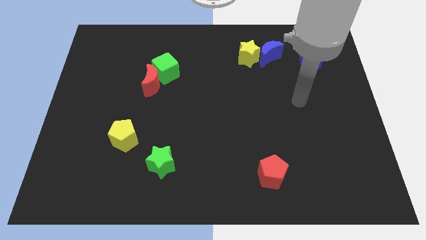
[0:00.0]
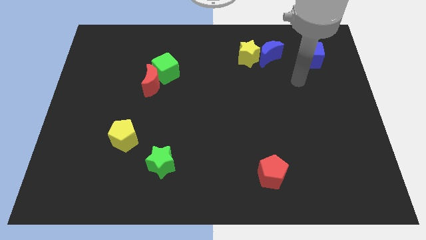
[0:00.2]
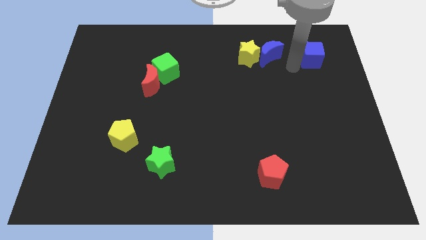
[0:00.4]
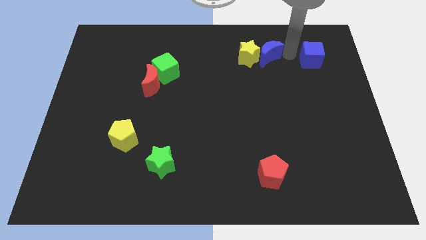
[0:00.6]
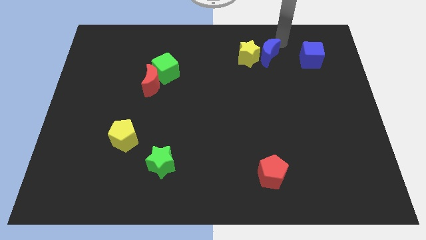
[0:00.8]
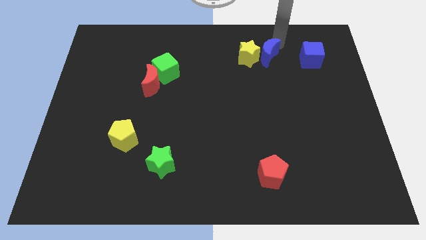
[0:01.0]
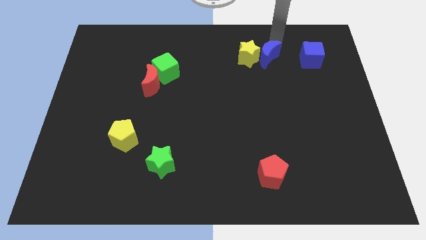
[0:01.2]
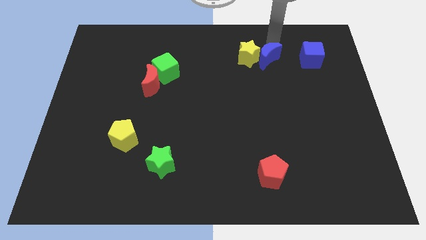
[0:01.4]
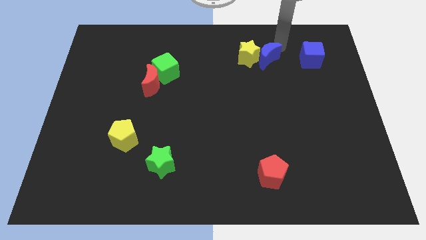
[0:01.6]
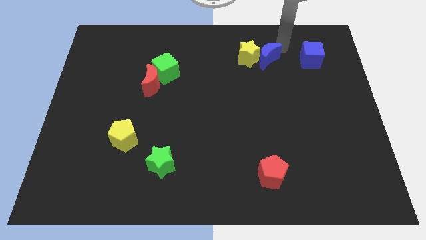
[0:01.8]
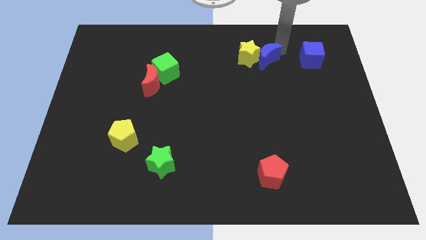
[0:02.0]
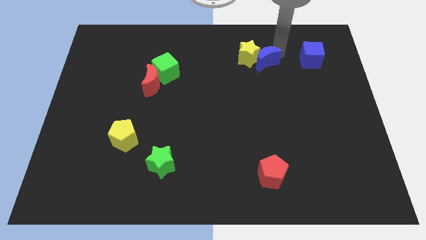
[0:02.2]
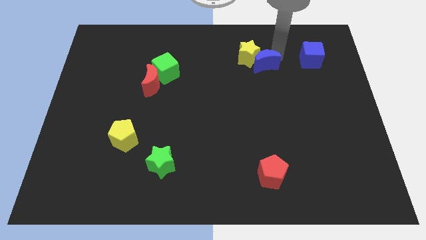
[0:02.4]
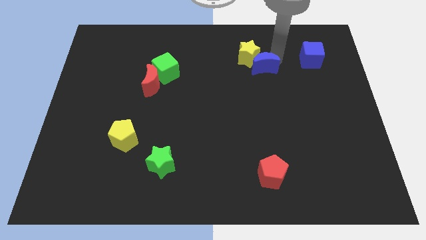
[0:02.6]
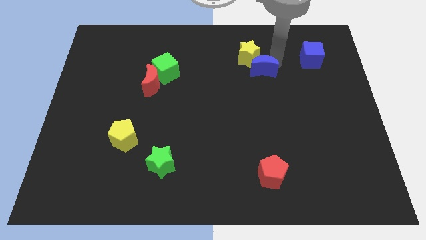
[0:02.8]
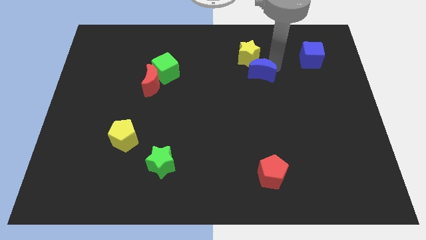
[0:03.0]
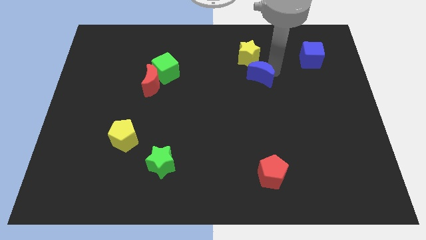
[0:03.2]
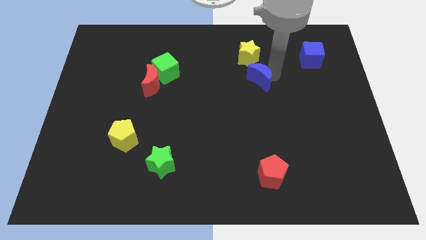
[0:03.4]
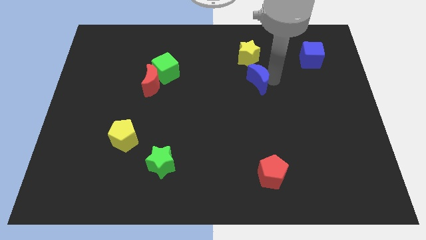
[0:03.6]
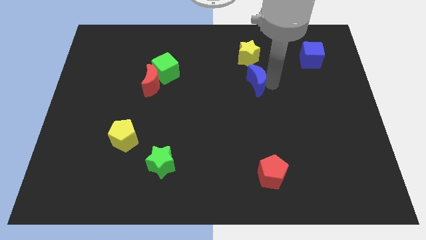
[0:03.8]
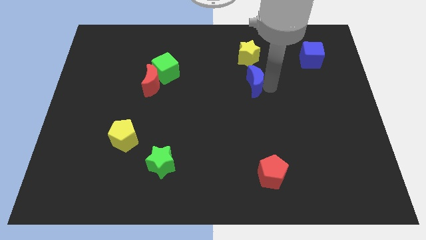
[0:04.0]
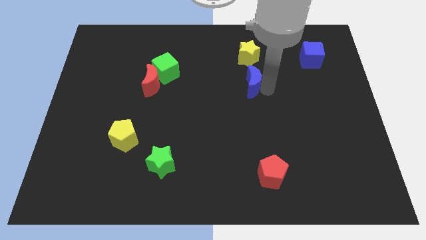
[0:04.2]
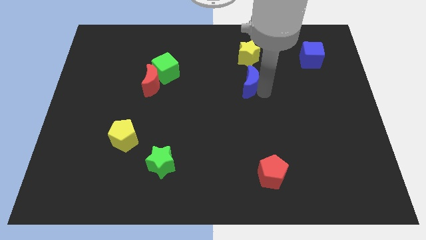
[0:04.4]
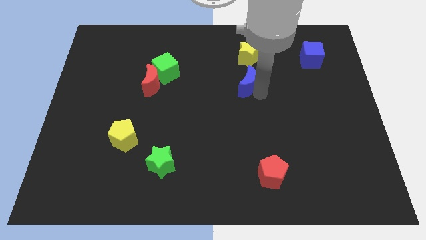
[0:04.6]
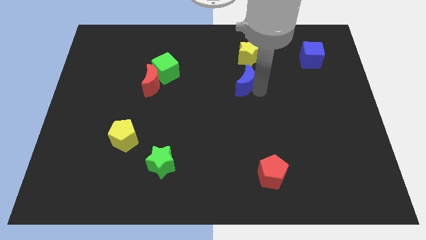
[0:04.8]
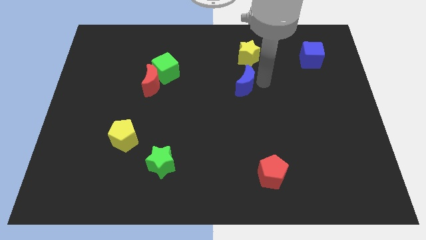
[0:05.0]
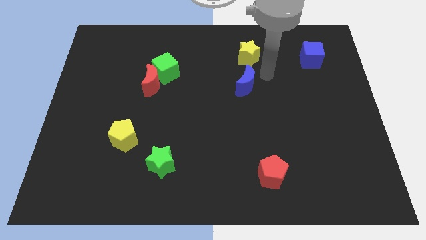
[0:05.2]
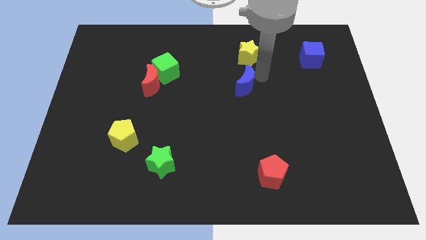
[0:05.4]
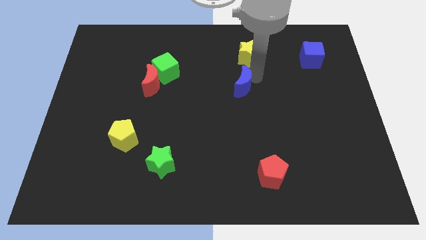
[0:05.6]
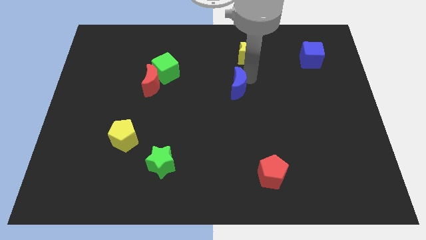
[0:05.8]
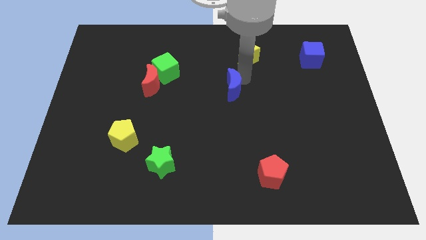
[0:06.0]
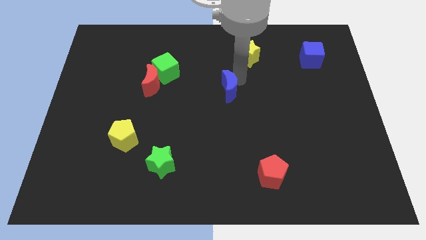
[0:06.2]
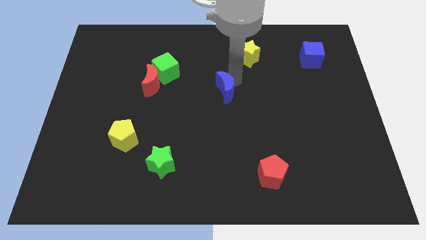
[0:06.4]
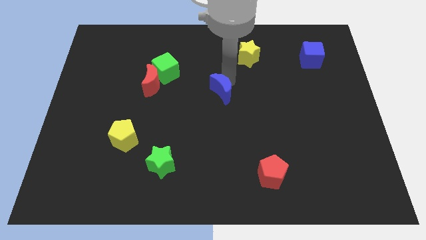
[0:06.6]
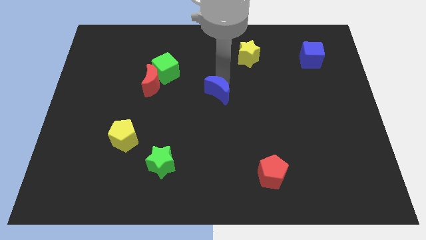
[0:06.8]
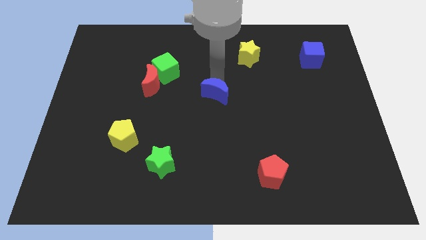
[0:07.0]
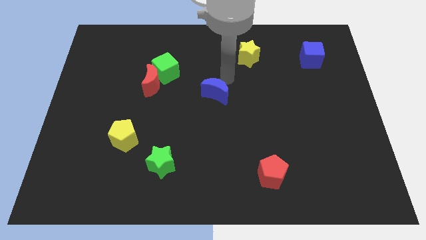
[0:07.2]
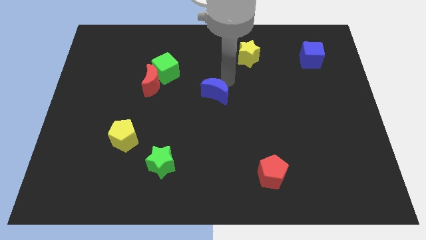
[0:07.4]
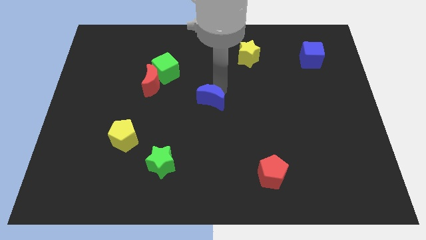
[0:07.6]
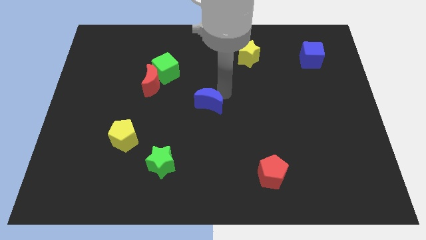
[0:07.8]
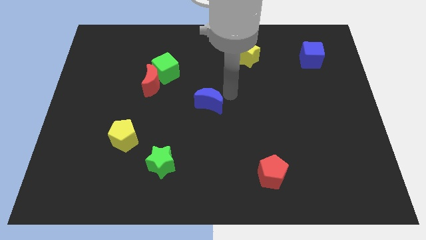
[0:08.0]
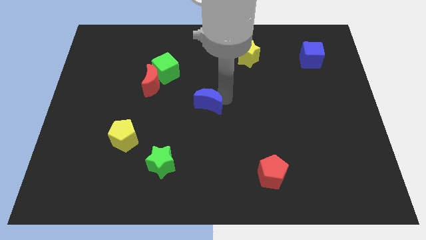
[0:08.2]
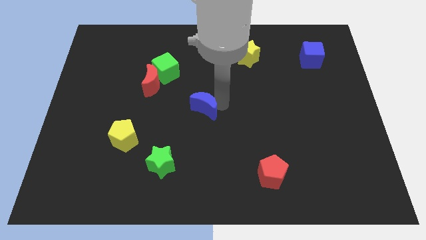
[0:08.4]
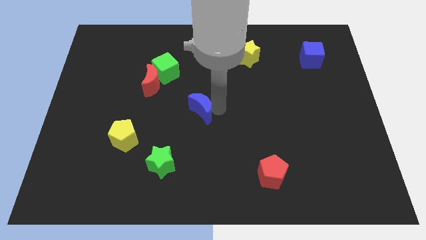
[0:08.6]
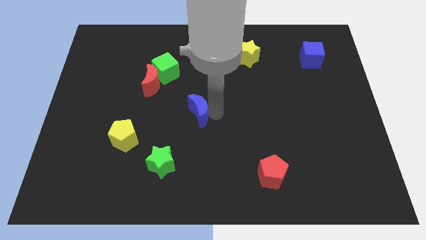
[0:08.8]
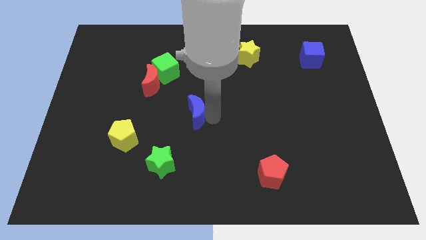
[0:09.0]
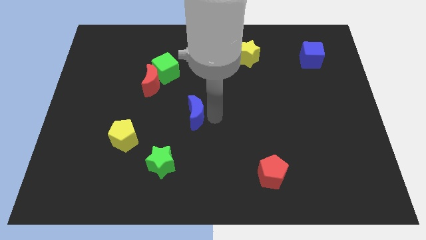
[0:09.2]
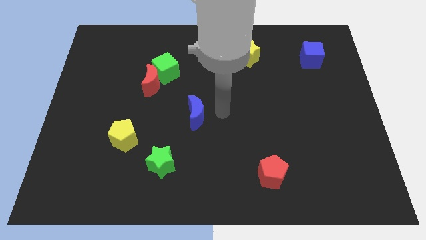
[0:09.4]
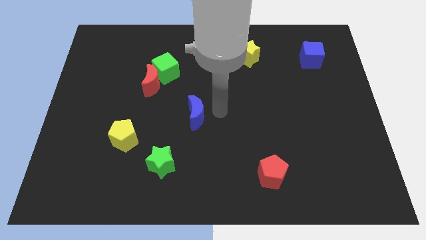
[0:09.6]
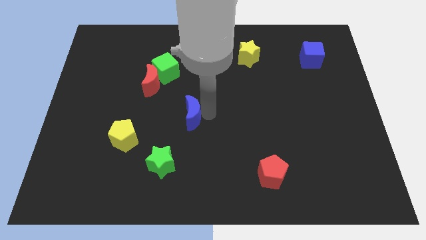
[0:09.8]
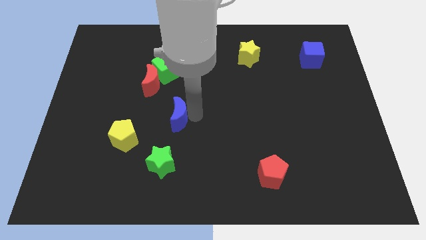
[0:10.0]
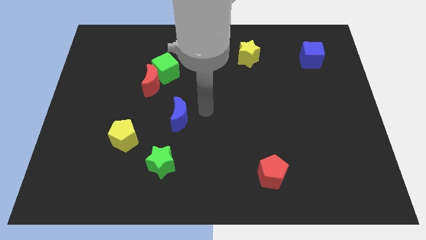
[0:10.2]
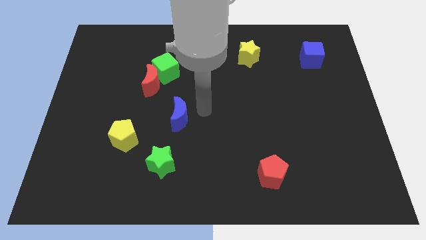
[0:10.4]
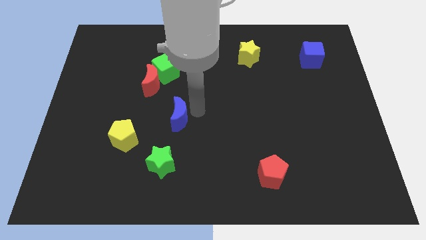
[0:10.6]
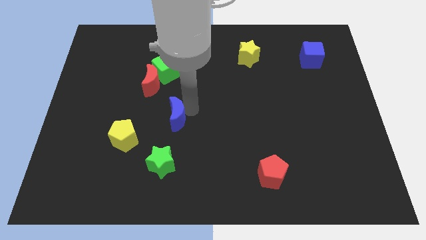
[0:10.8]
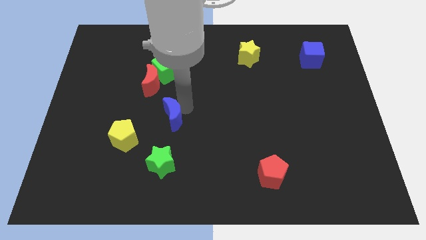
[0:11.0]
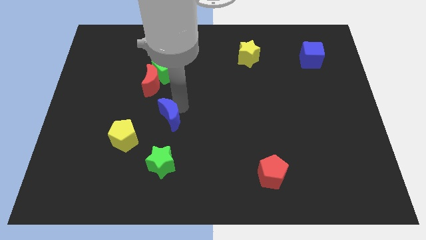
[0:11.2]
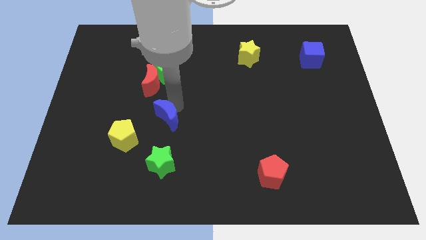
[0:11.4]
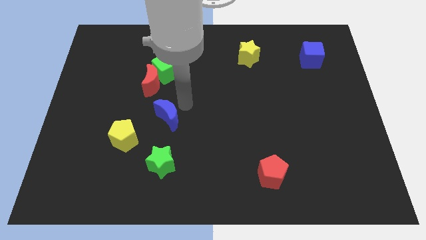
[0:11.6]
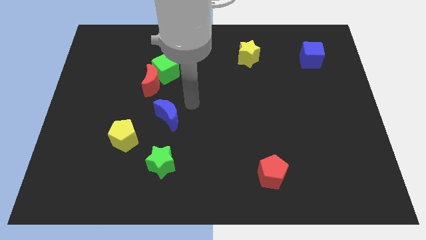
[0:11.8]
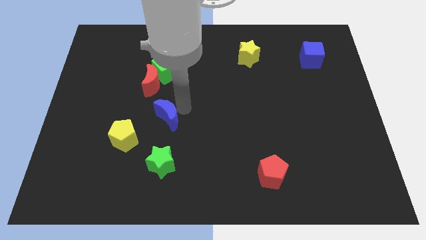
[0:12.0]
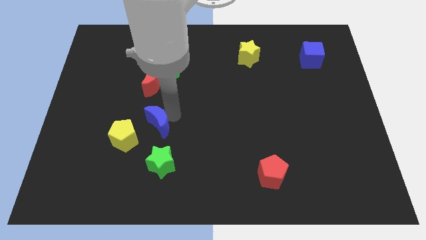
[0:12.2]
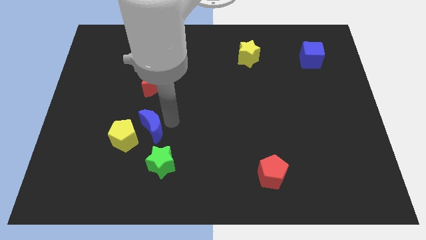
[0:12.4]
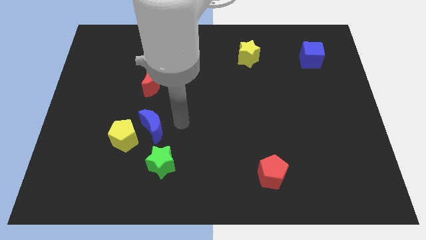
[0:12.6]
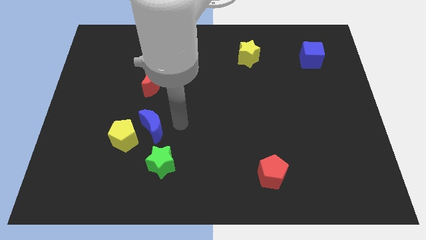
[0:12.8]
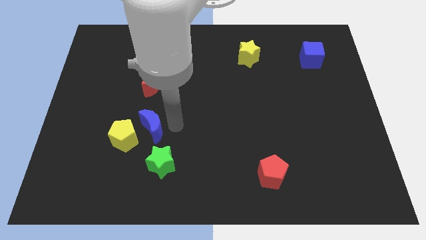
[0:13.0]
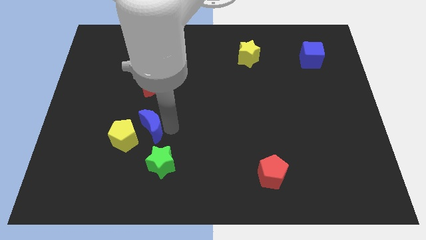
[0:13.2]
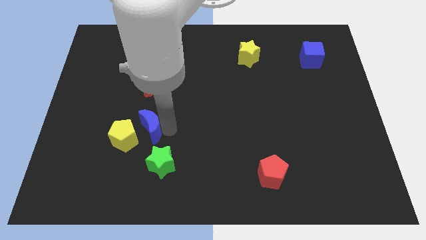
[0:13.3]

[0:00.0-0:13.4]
move the blue moon towards the yellow pentagon

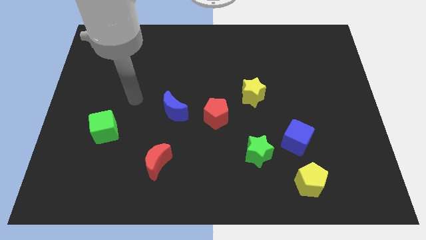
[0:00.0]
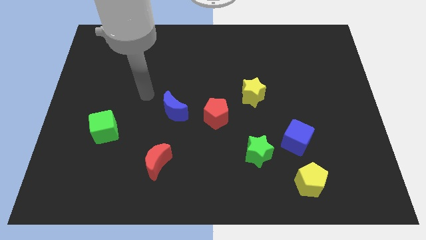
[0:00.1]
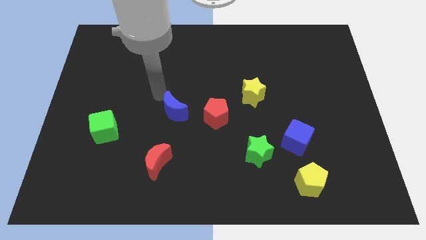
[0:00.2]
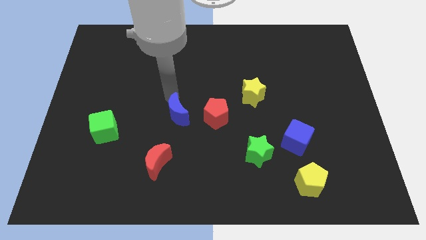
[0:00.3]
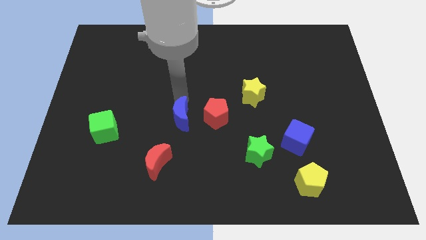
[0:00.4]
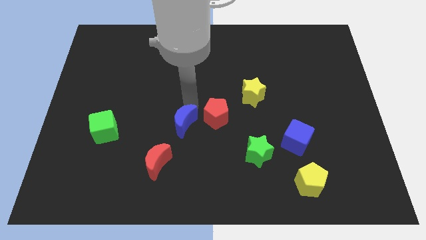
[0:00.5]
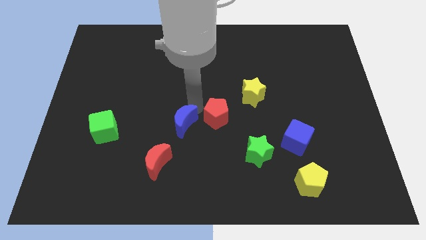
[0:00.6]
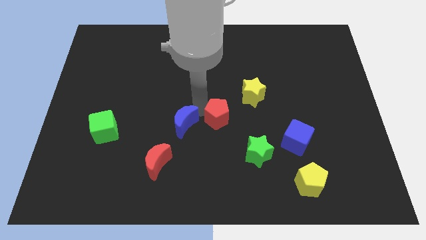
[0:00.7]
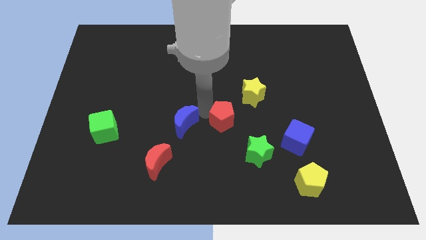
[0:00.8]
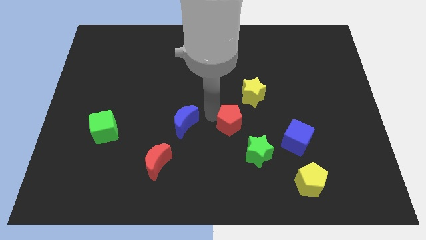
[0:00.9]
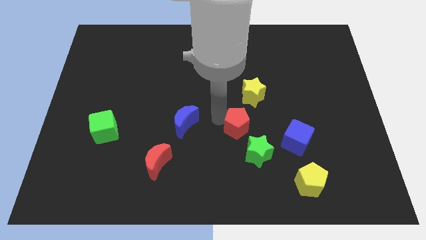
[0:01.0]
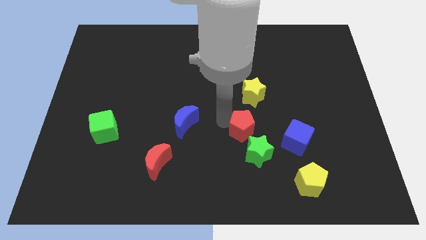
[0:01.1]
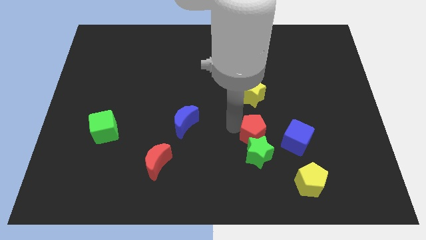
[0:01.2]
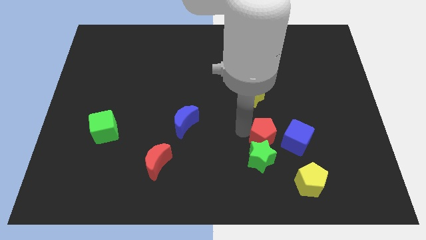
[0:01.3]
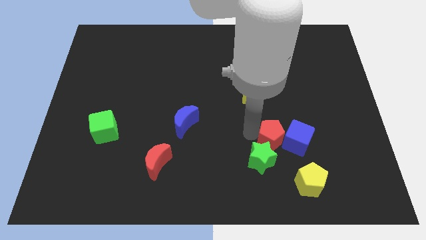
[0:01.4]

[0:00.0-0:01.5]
push the red pentagon towards the blue cube
